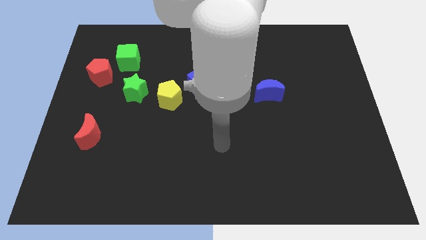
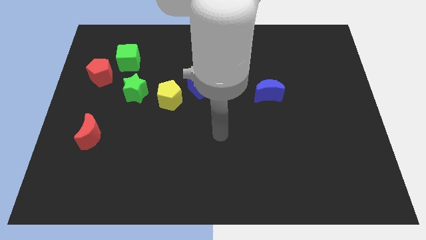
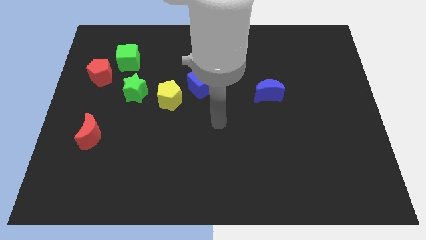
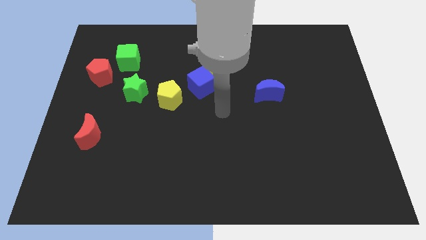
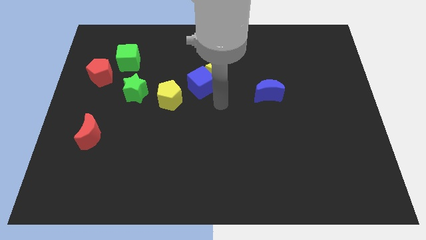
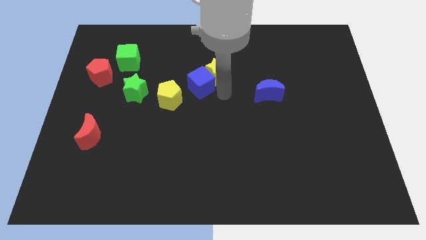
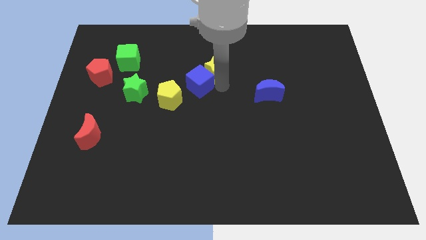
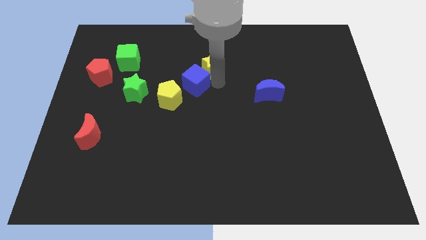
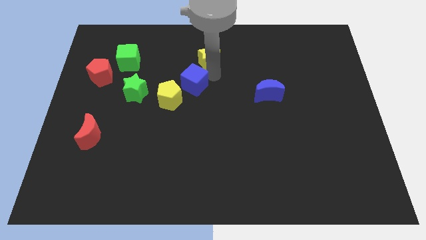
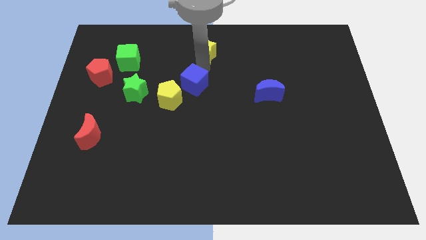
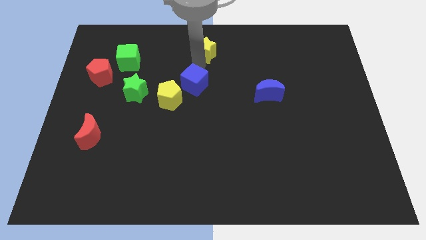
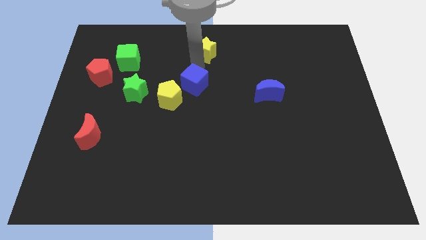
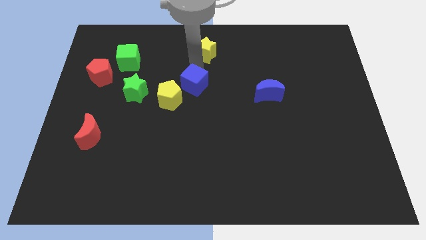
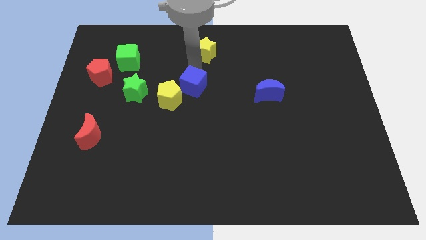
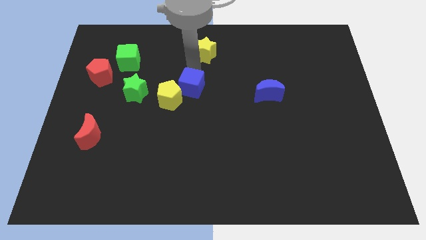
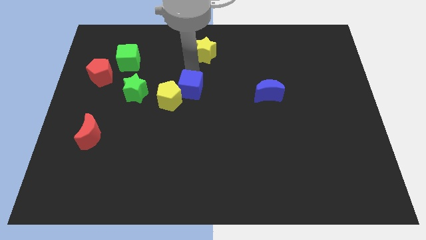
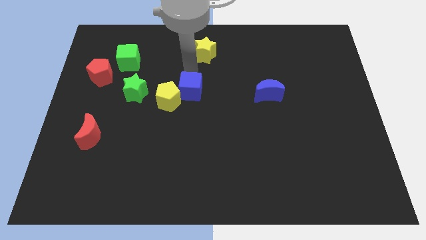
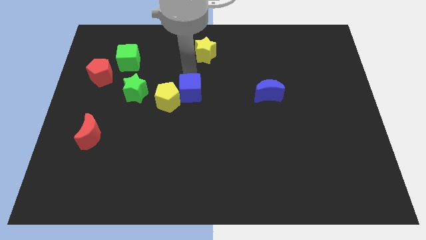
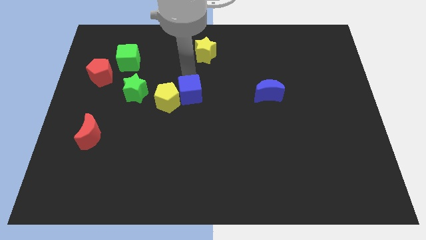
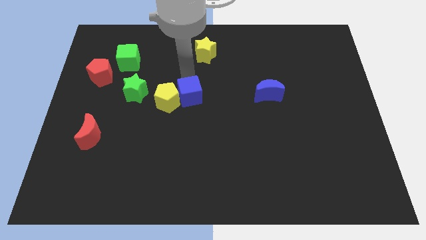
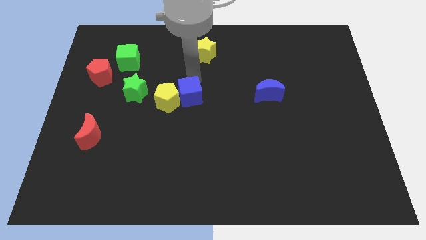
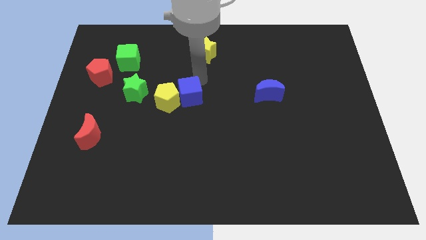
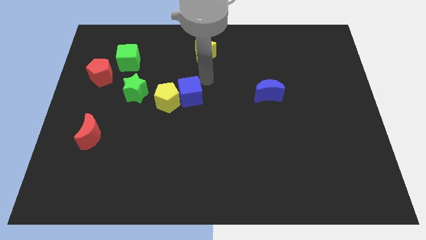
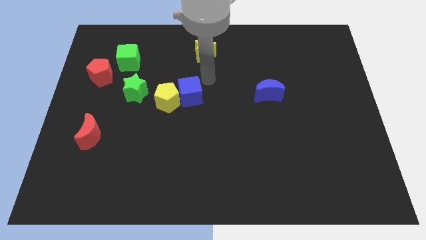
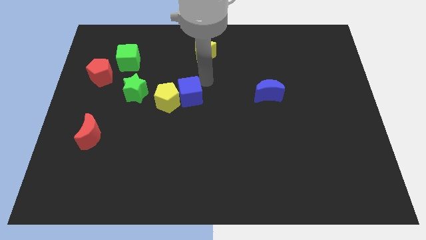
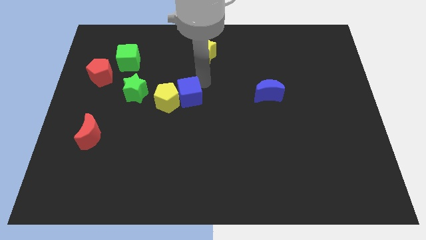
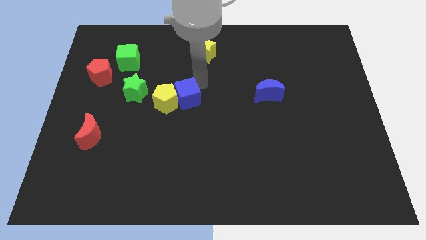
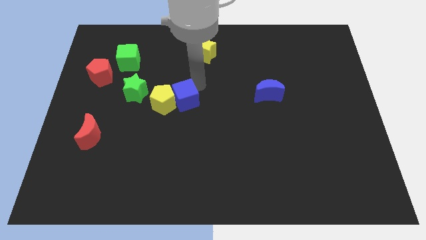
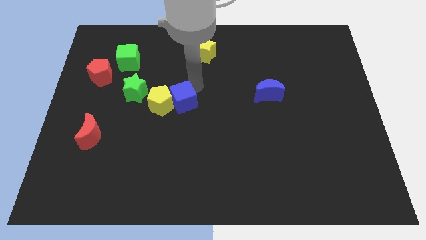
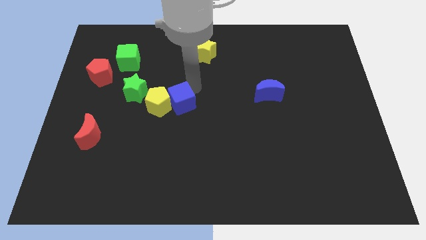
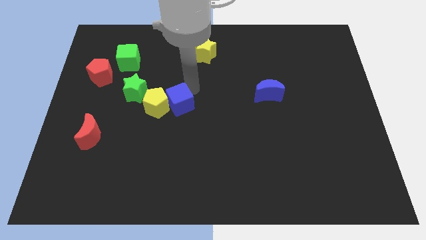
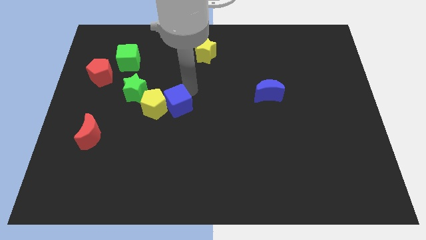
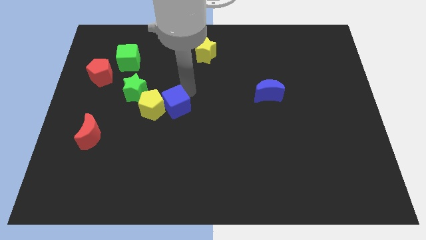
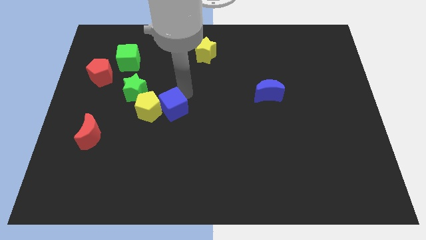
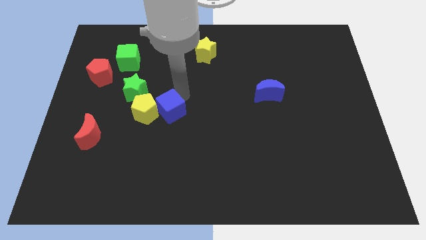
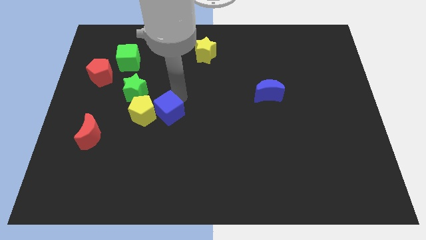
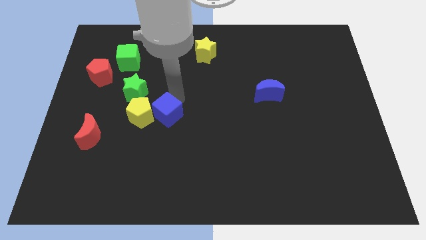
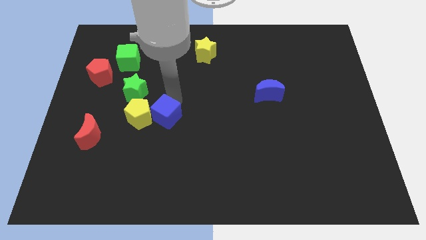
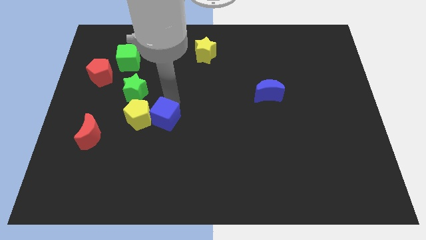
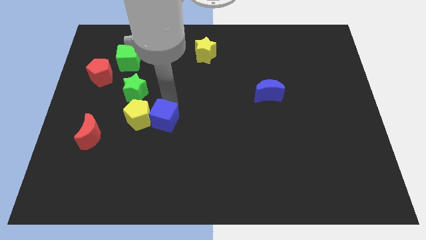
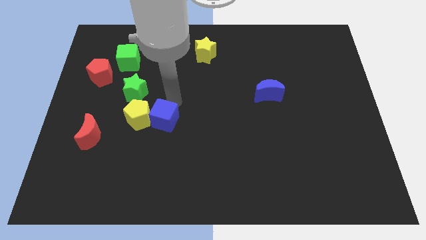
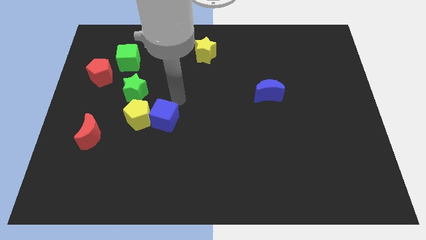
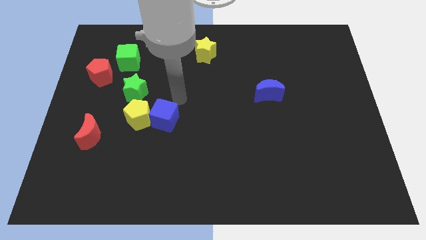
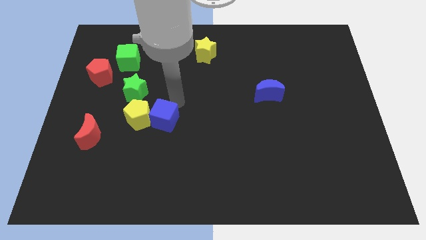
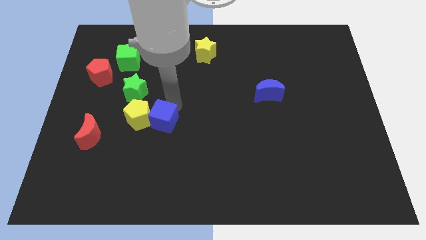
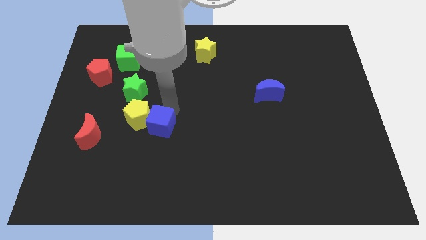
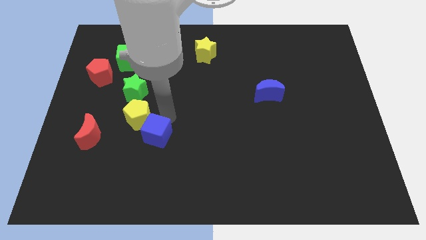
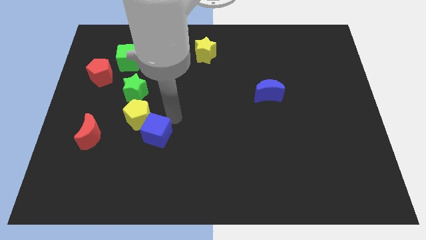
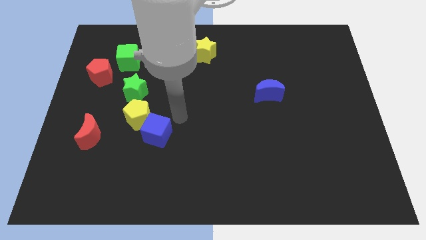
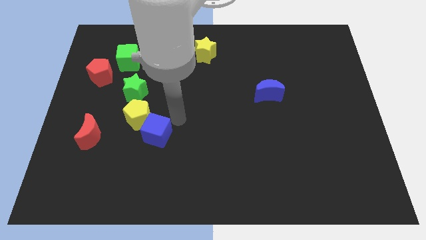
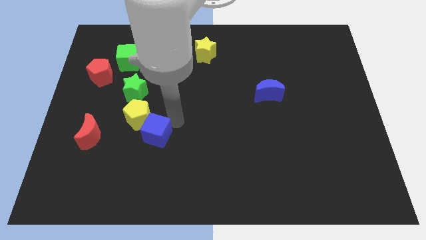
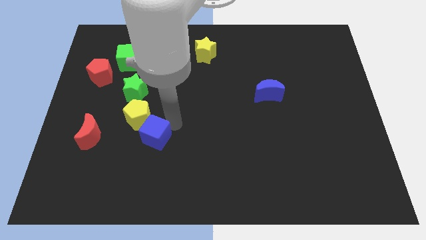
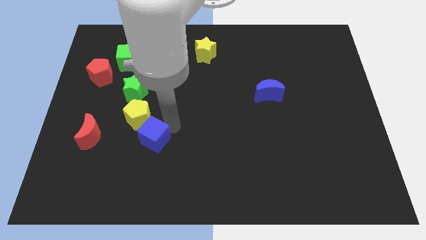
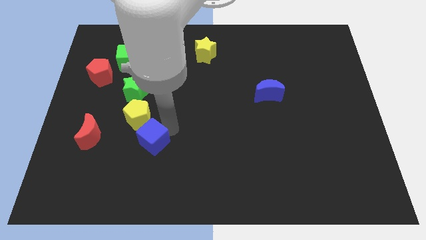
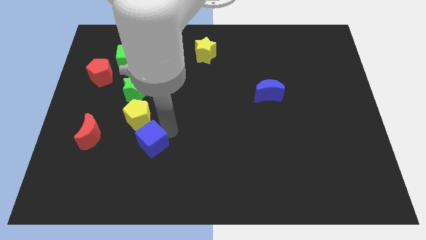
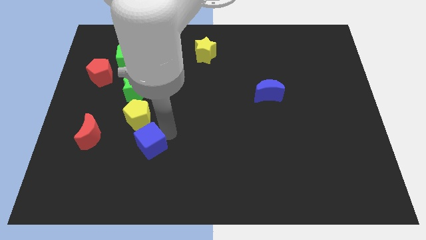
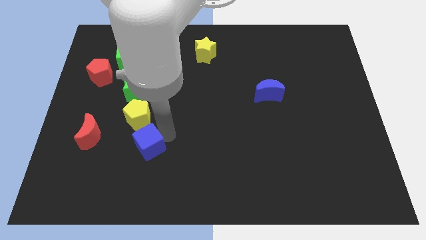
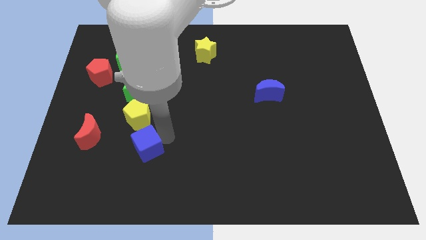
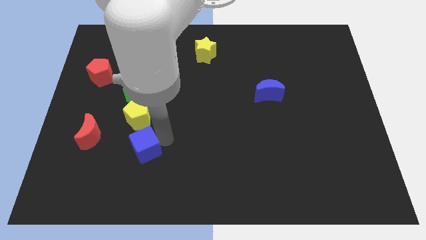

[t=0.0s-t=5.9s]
push the blue cube down and to the left diagonally

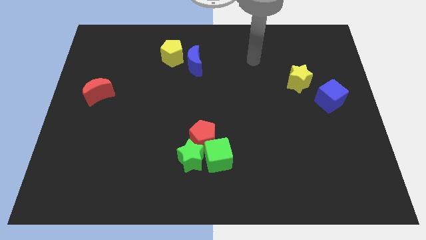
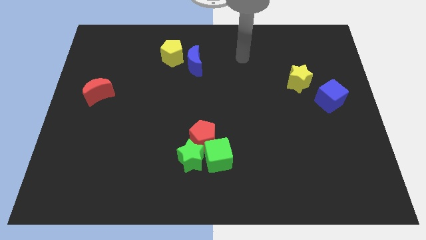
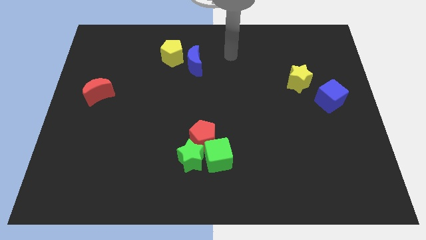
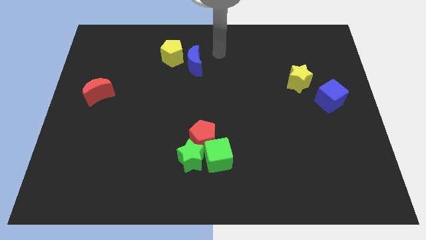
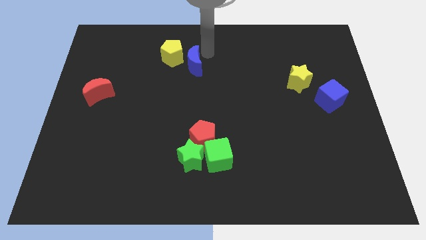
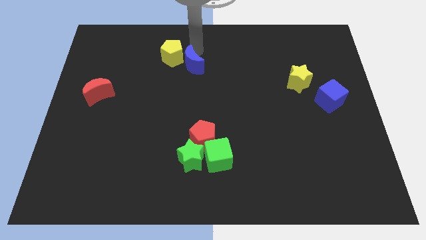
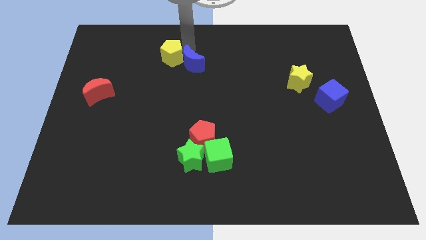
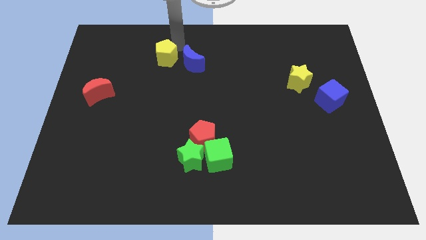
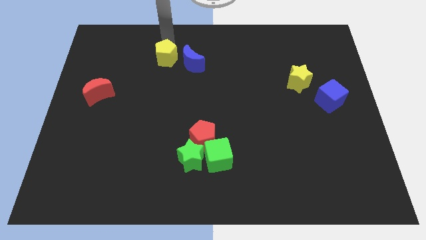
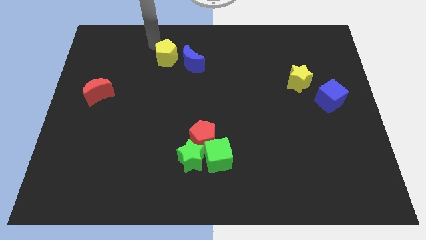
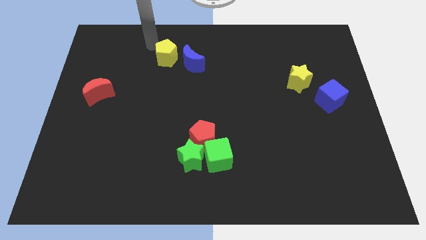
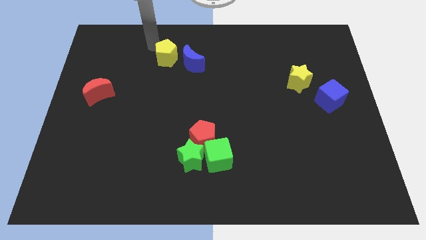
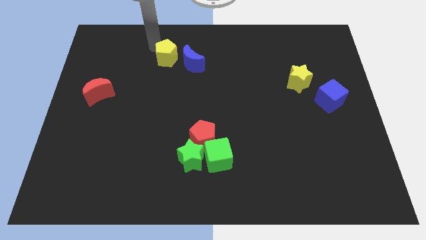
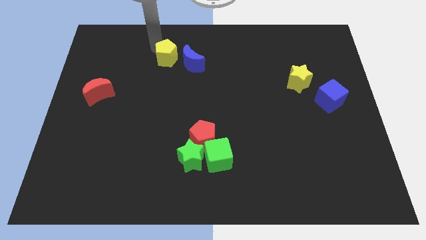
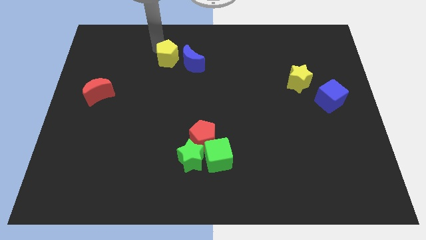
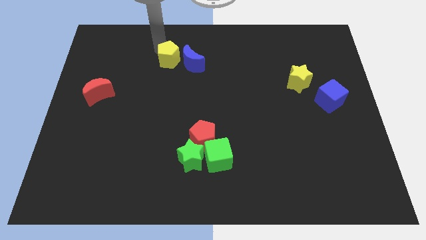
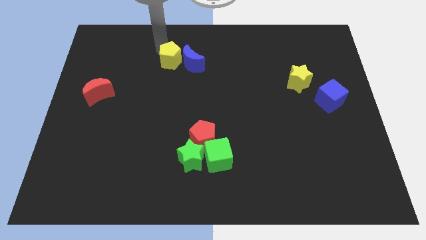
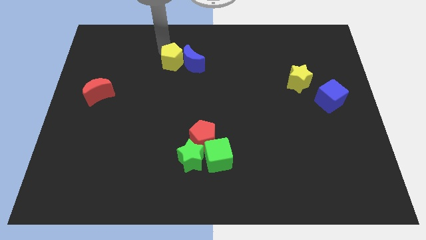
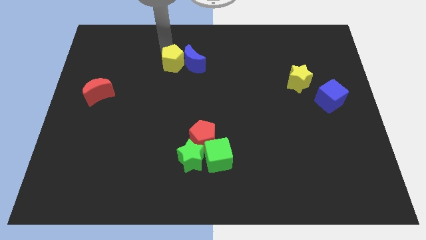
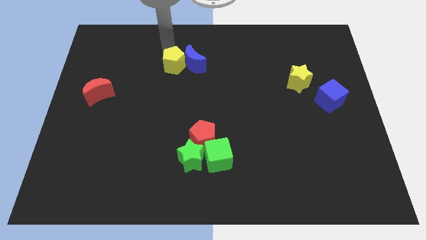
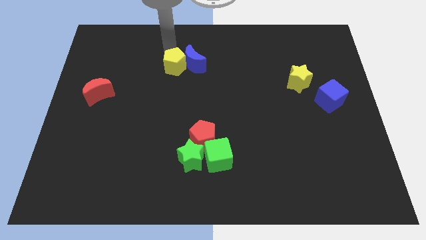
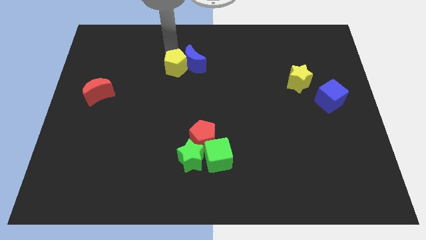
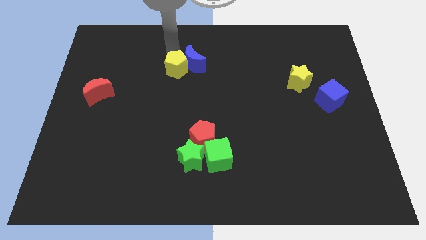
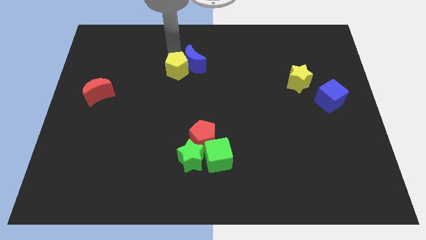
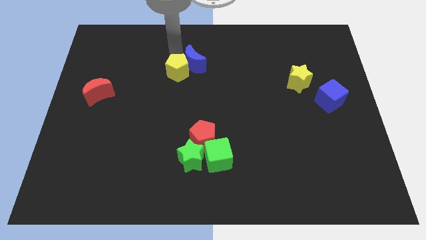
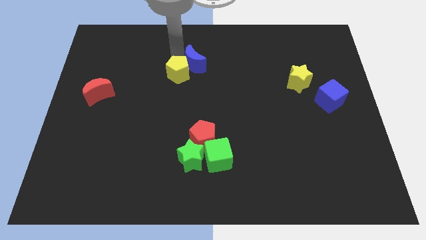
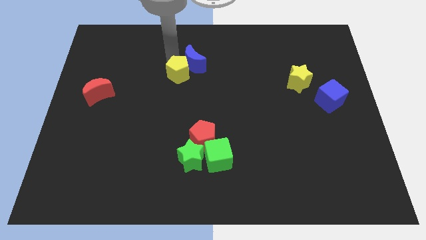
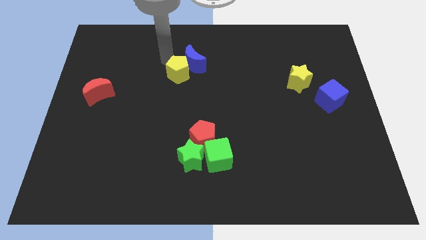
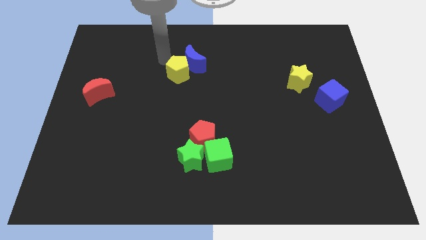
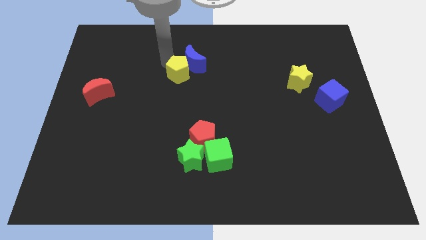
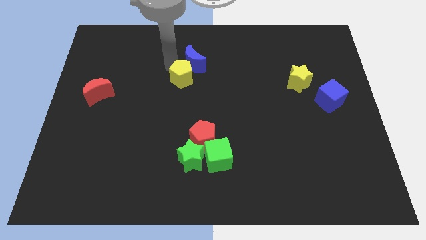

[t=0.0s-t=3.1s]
slightly move the yellow pentagon diagonally down and to the right
